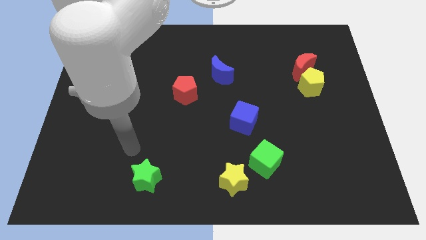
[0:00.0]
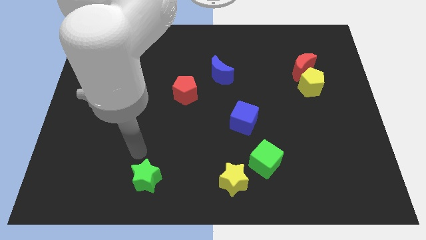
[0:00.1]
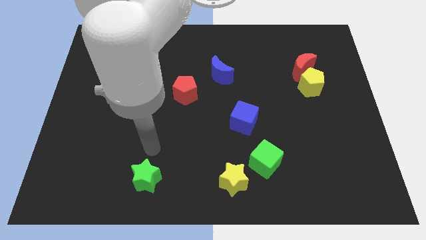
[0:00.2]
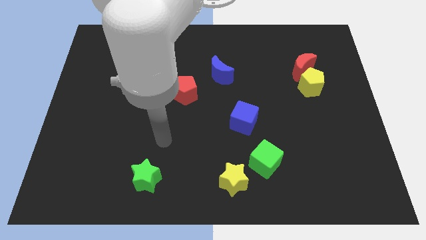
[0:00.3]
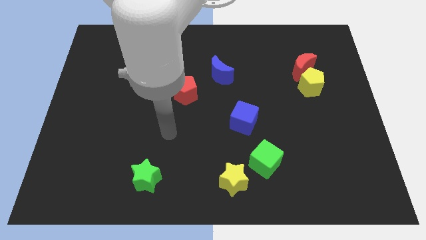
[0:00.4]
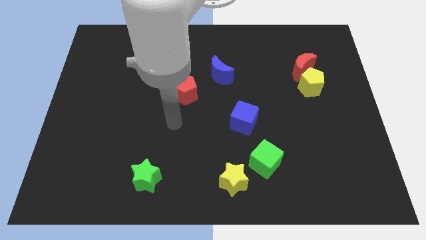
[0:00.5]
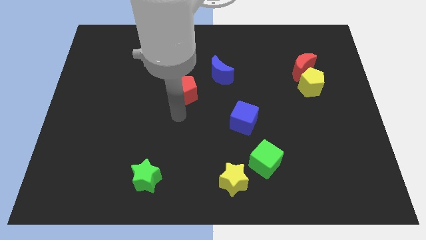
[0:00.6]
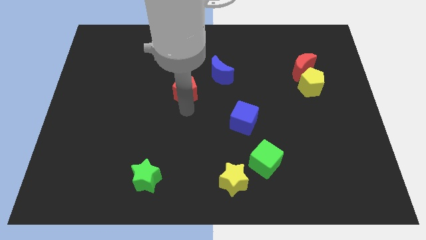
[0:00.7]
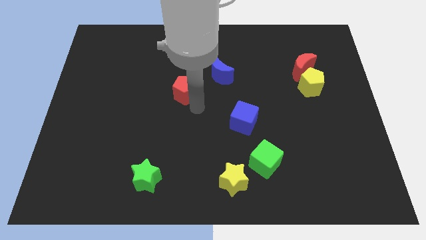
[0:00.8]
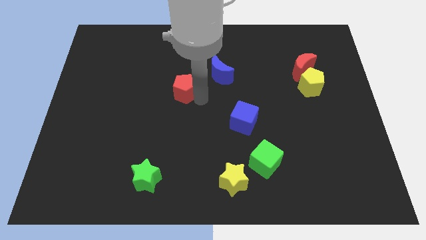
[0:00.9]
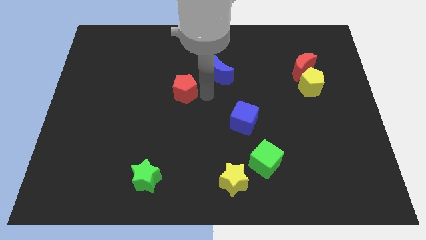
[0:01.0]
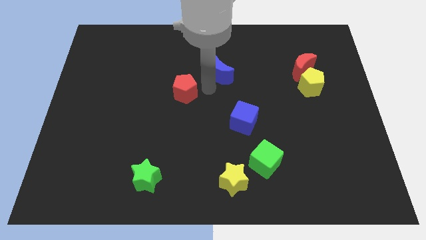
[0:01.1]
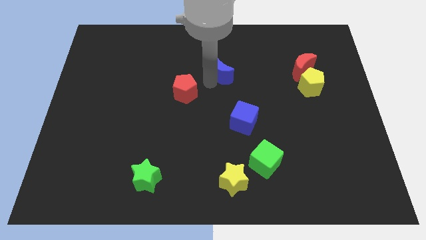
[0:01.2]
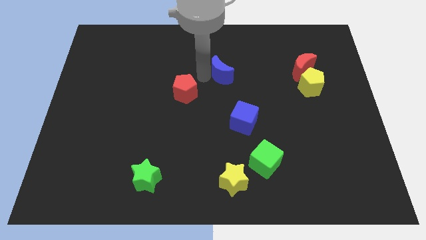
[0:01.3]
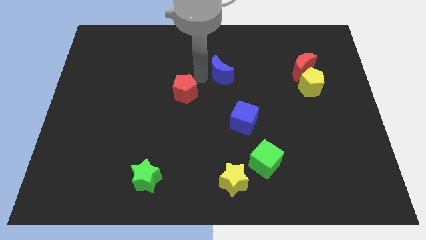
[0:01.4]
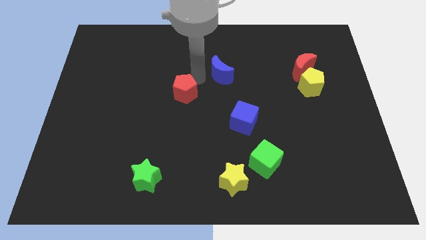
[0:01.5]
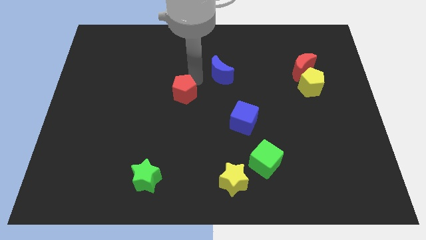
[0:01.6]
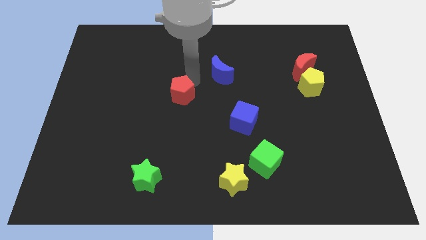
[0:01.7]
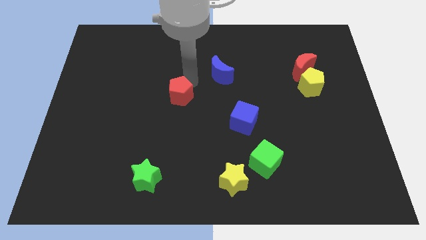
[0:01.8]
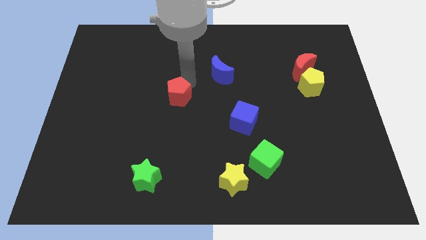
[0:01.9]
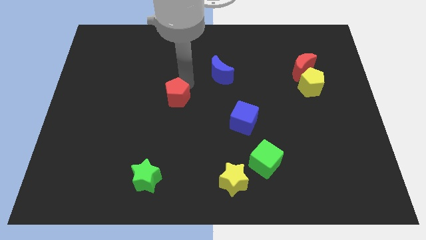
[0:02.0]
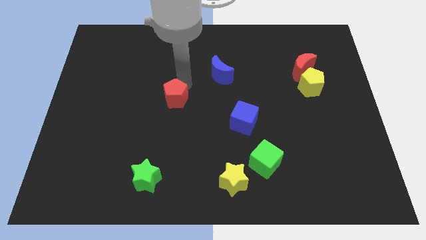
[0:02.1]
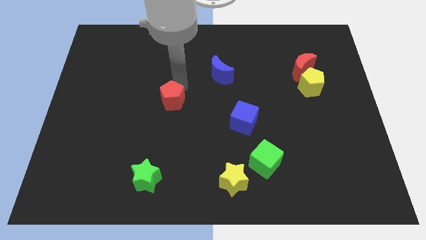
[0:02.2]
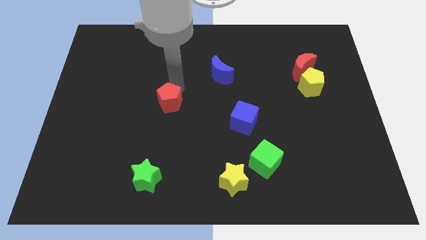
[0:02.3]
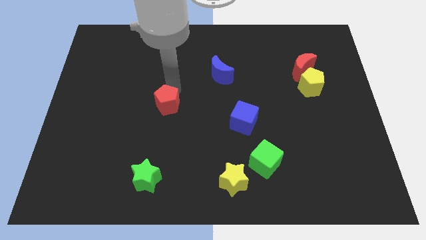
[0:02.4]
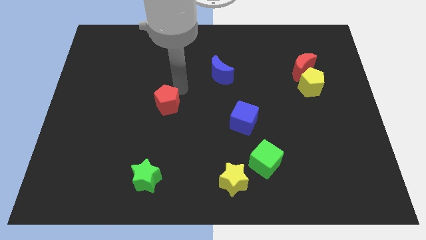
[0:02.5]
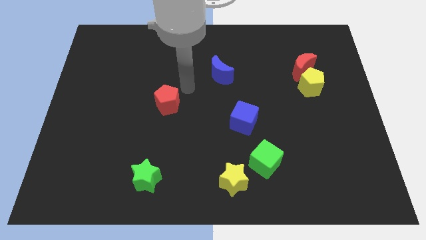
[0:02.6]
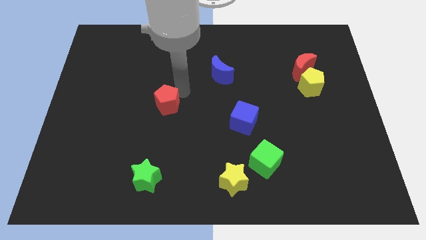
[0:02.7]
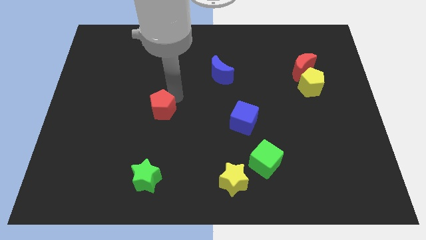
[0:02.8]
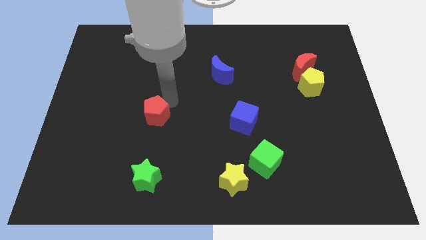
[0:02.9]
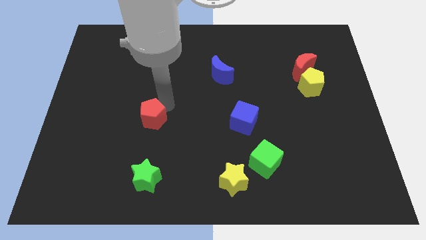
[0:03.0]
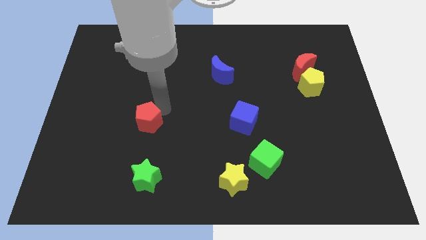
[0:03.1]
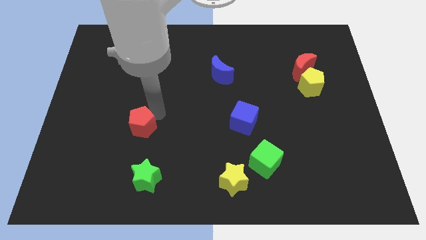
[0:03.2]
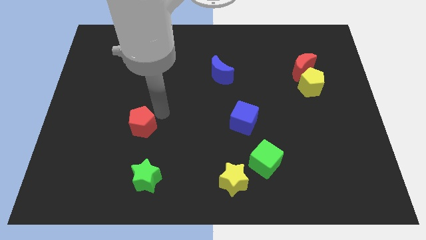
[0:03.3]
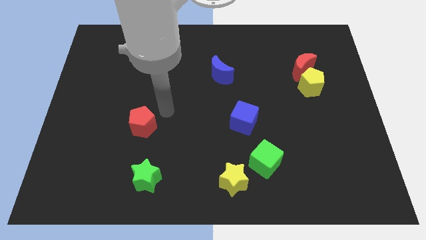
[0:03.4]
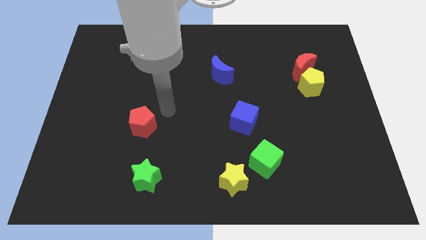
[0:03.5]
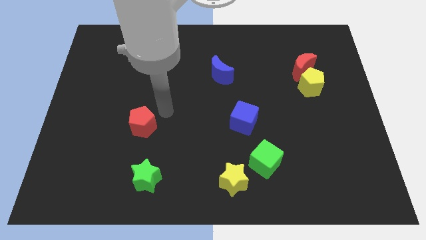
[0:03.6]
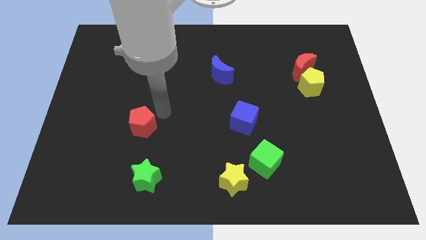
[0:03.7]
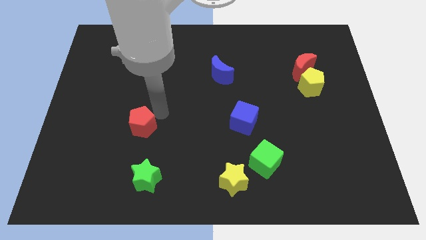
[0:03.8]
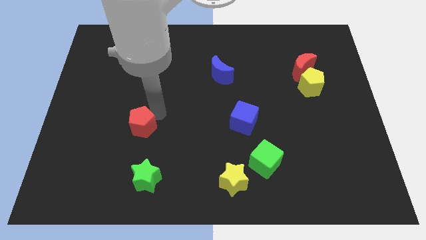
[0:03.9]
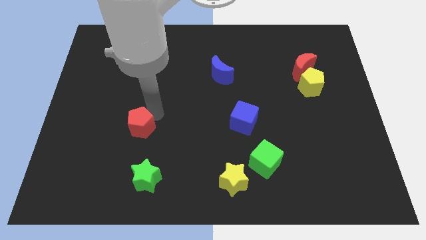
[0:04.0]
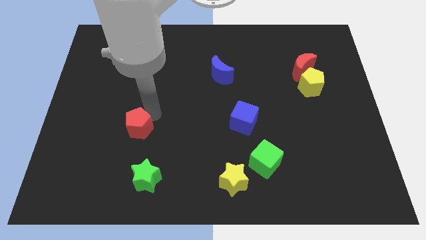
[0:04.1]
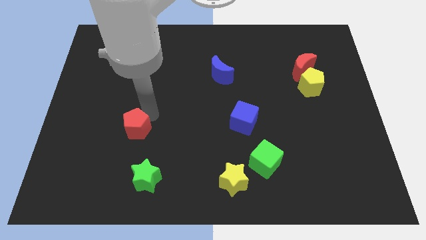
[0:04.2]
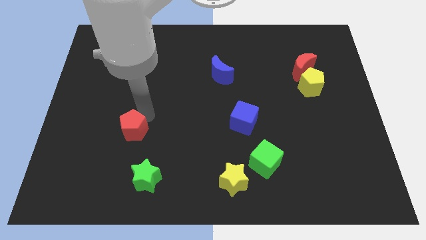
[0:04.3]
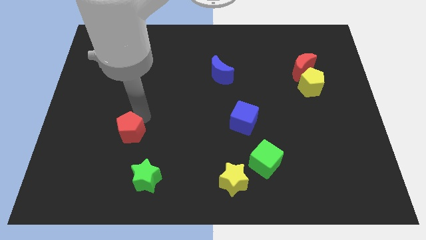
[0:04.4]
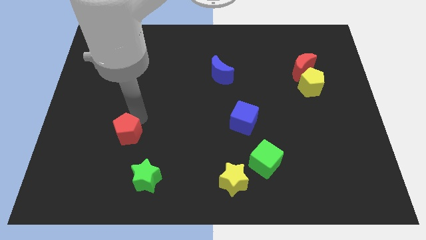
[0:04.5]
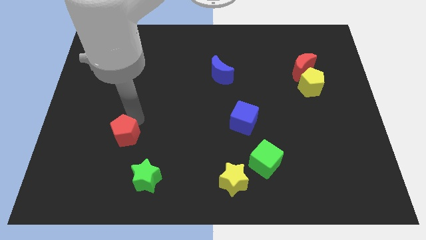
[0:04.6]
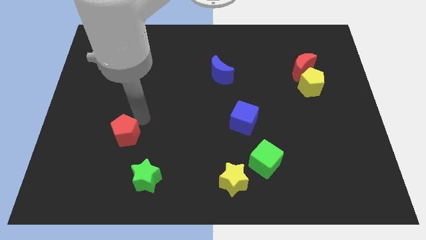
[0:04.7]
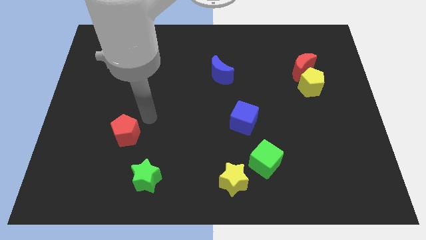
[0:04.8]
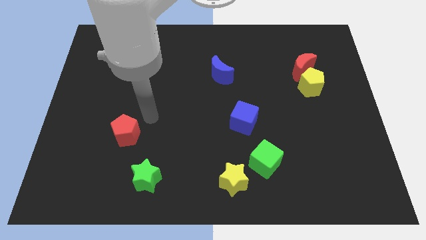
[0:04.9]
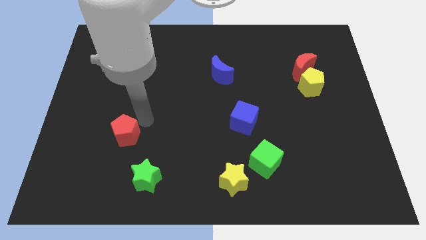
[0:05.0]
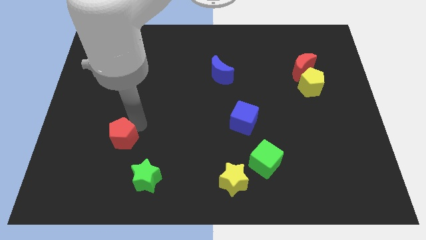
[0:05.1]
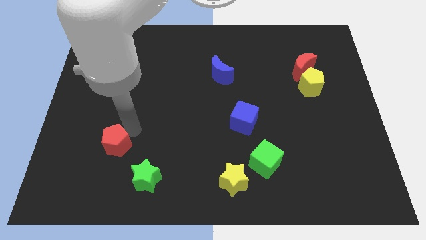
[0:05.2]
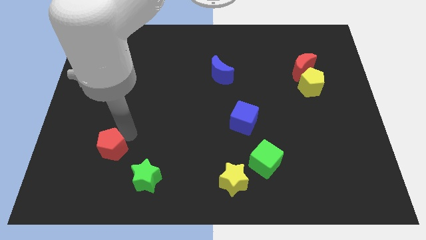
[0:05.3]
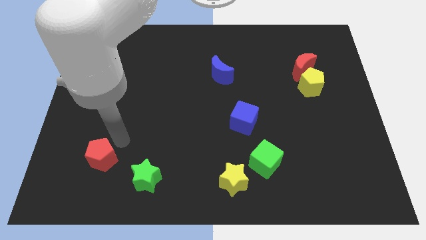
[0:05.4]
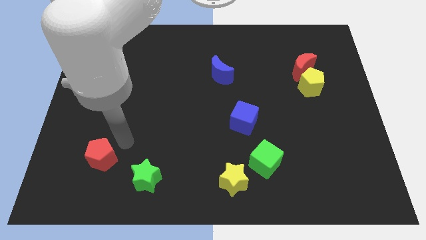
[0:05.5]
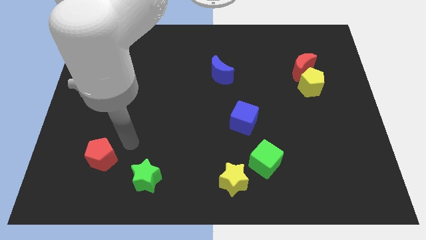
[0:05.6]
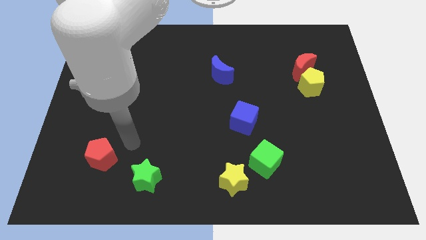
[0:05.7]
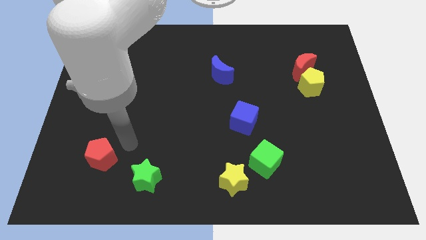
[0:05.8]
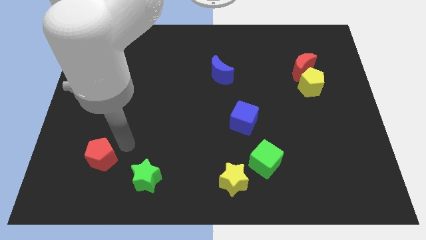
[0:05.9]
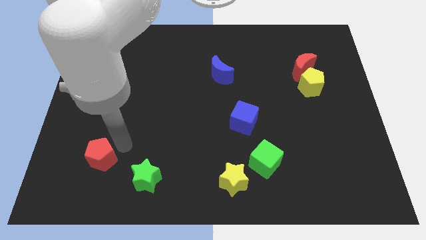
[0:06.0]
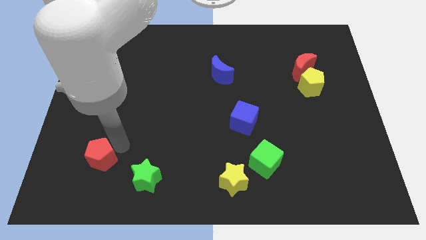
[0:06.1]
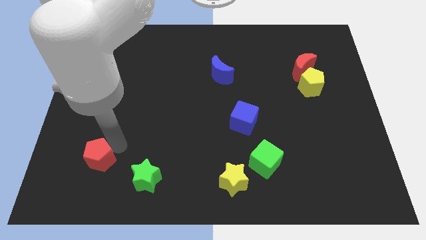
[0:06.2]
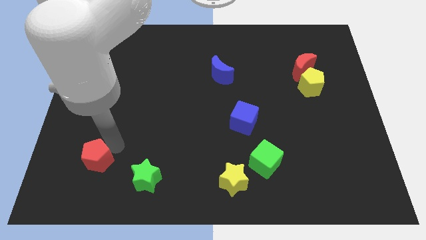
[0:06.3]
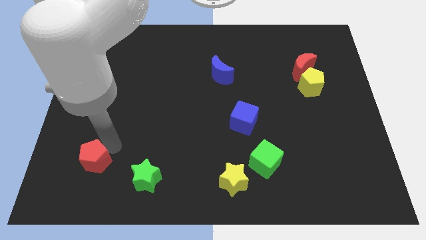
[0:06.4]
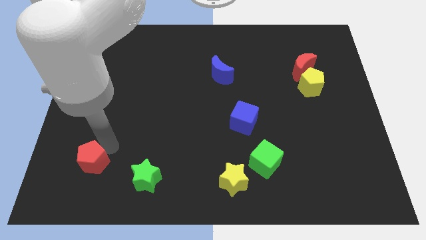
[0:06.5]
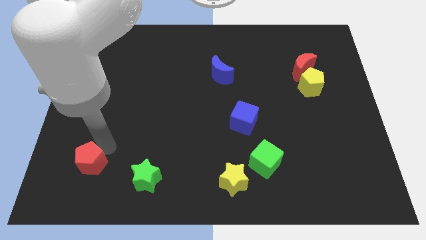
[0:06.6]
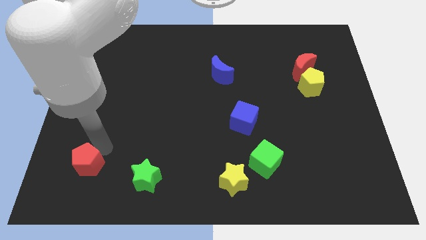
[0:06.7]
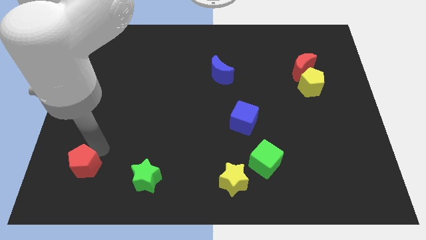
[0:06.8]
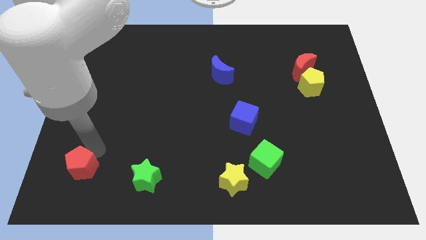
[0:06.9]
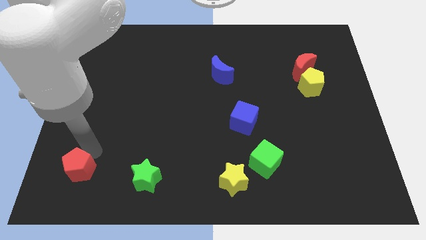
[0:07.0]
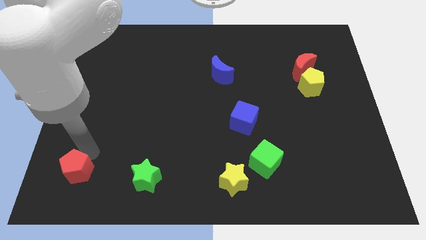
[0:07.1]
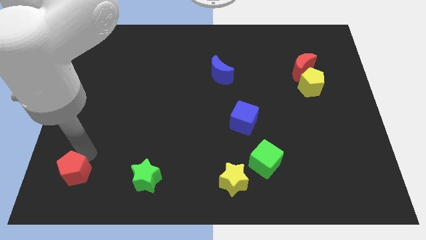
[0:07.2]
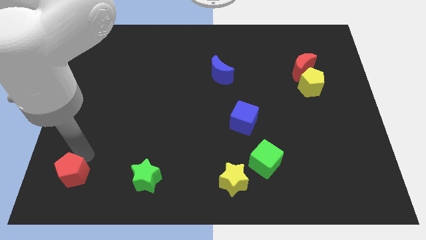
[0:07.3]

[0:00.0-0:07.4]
slide the red pentagon to the bottom left of the board
